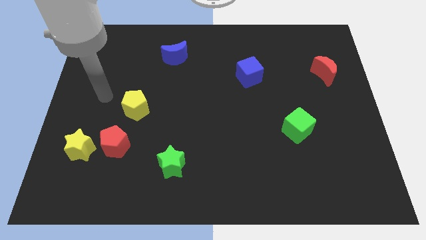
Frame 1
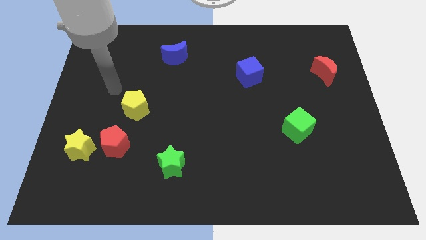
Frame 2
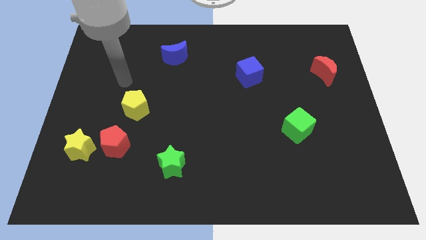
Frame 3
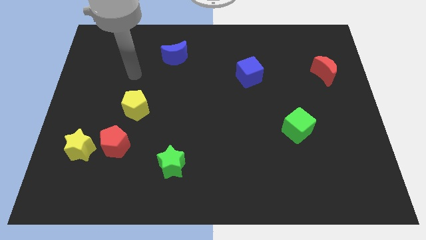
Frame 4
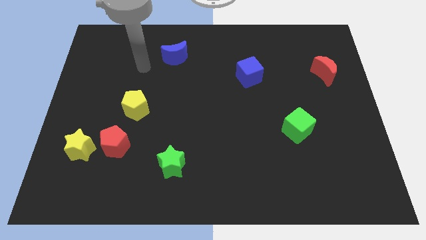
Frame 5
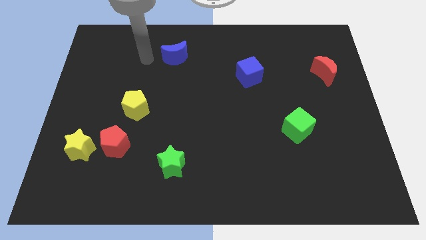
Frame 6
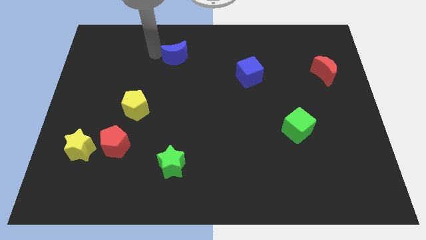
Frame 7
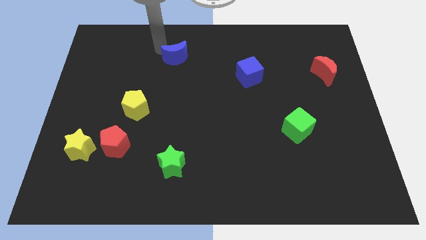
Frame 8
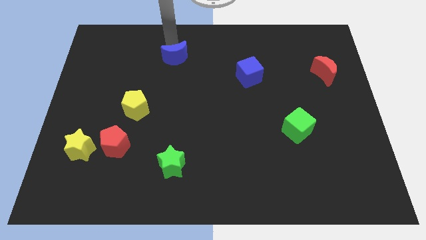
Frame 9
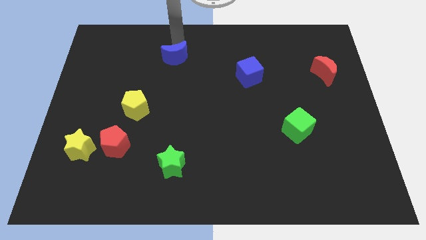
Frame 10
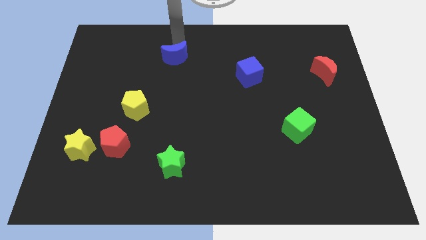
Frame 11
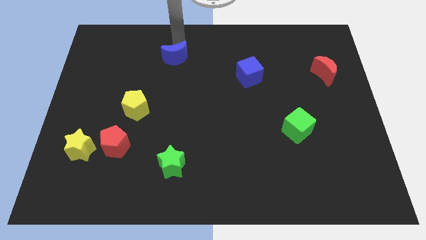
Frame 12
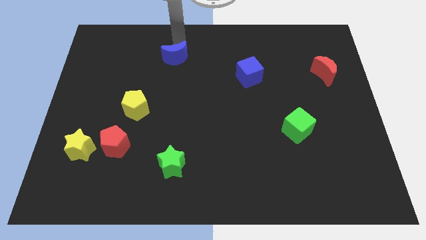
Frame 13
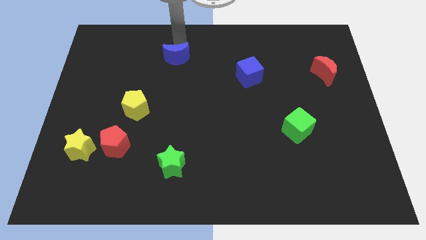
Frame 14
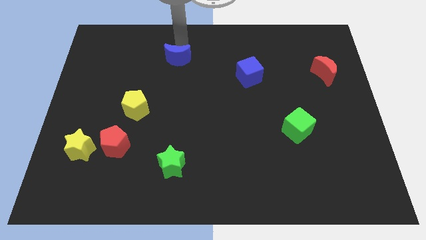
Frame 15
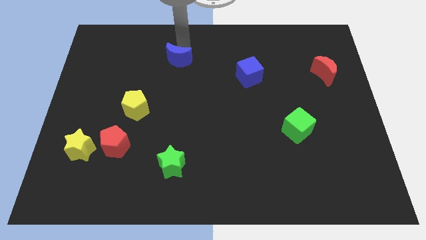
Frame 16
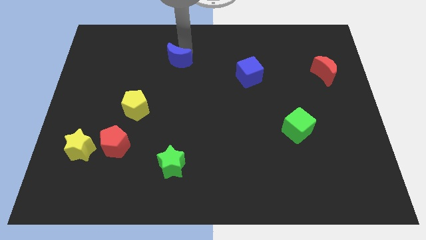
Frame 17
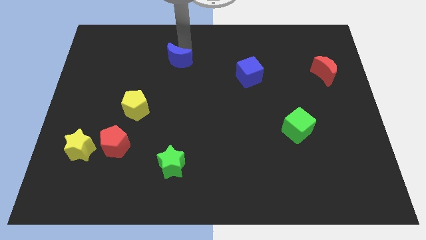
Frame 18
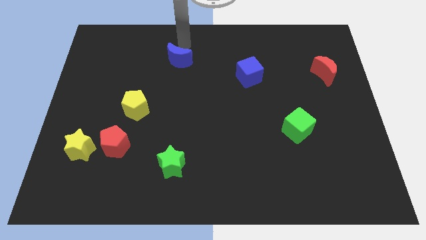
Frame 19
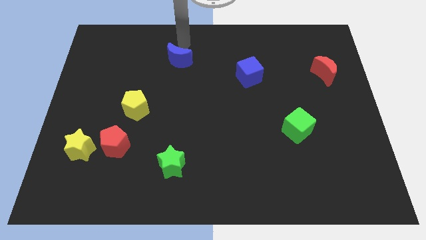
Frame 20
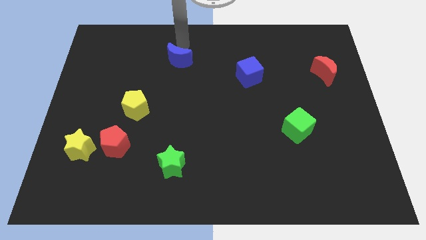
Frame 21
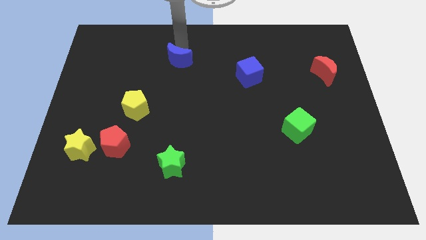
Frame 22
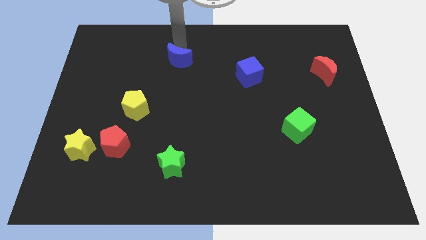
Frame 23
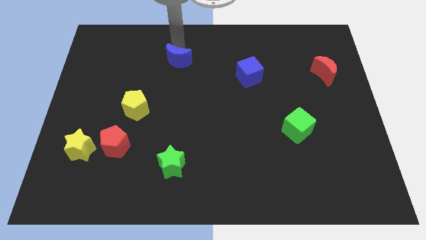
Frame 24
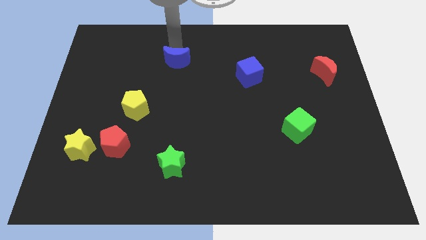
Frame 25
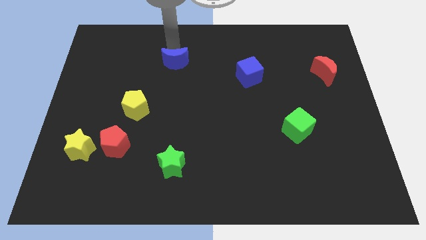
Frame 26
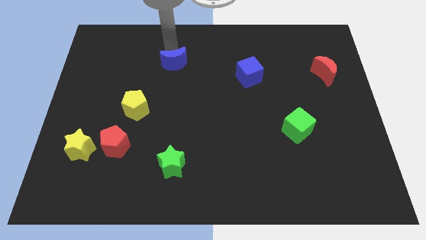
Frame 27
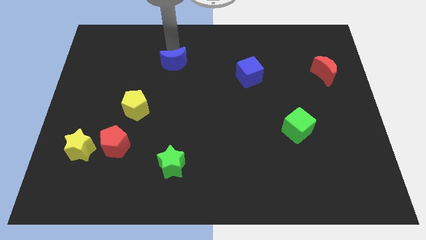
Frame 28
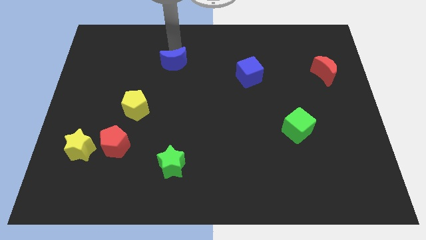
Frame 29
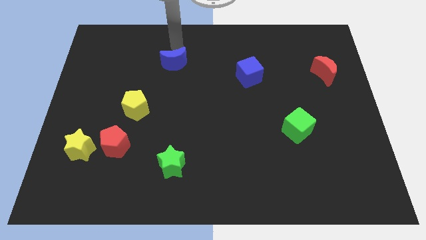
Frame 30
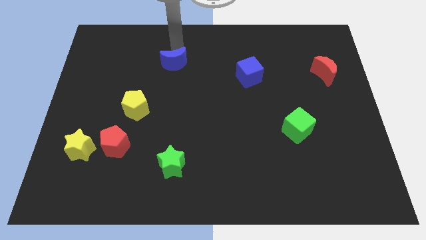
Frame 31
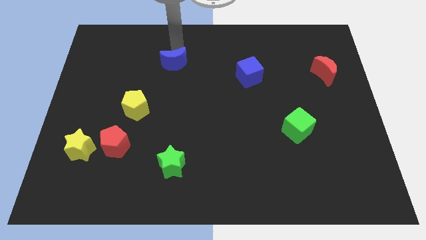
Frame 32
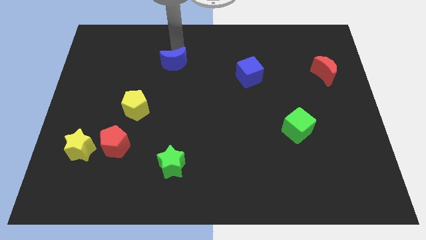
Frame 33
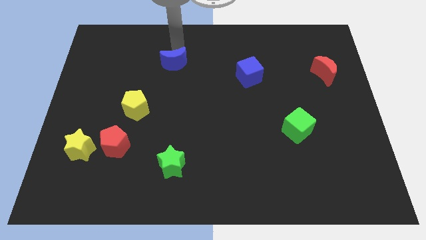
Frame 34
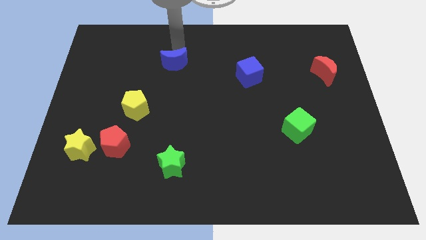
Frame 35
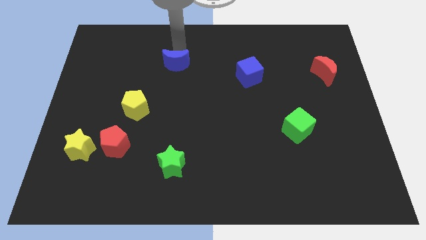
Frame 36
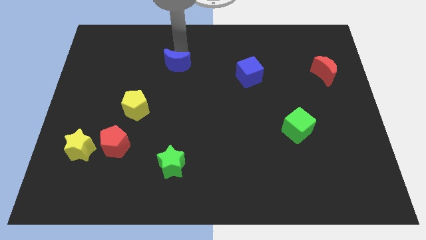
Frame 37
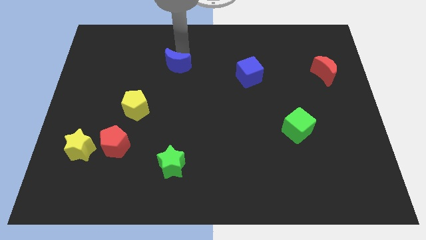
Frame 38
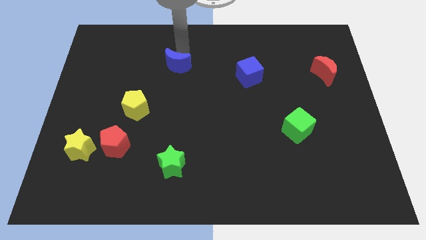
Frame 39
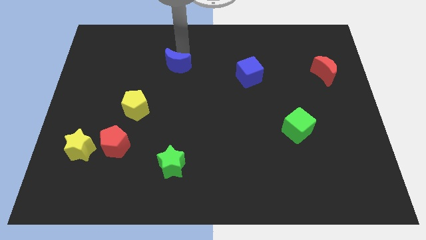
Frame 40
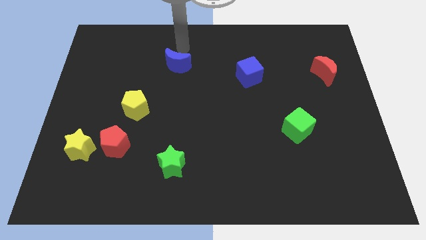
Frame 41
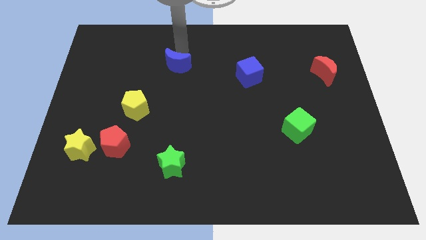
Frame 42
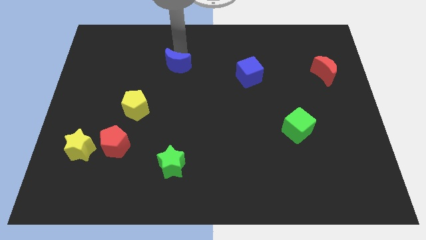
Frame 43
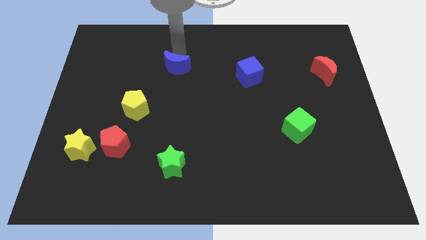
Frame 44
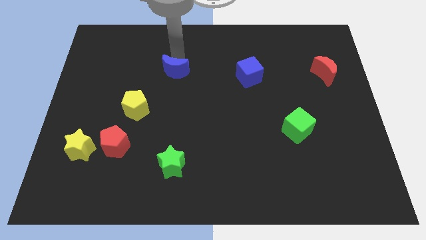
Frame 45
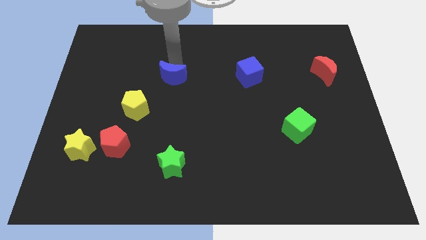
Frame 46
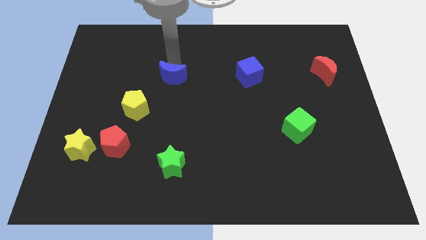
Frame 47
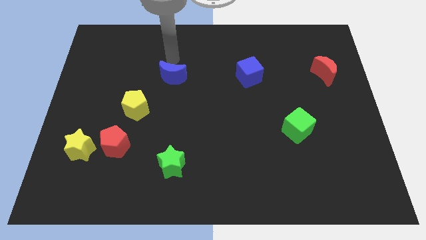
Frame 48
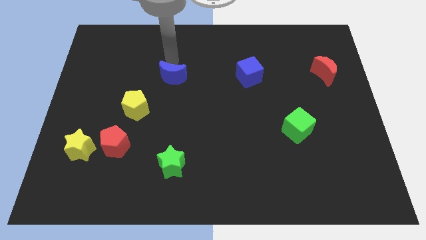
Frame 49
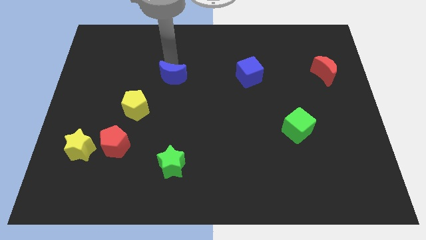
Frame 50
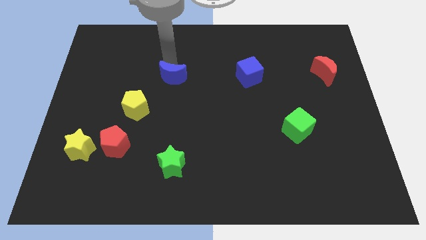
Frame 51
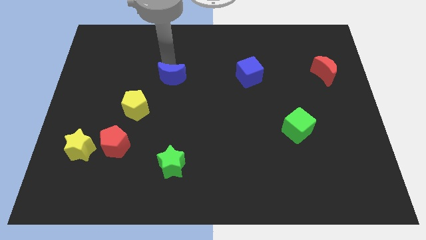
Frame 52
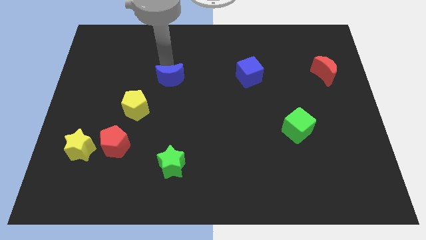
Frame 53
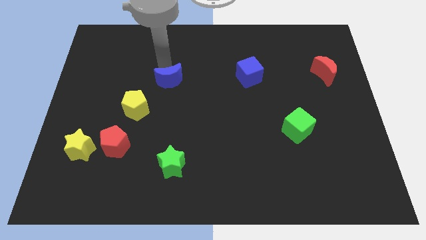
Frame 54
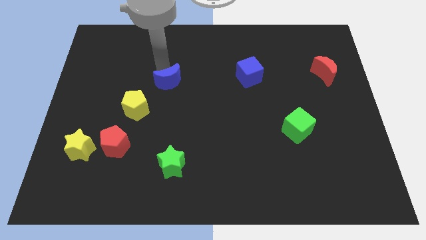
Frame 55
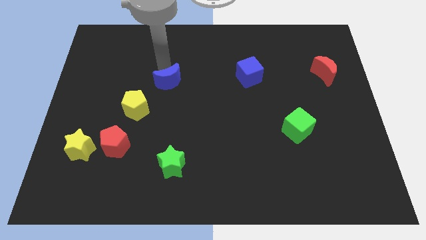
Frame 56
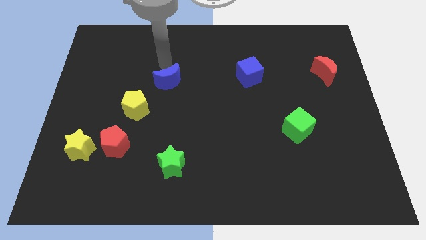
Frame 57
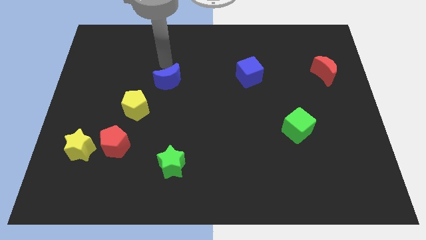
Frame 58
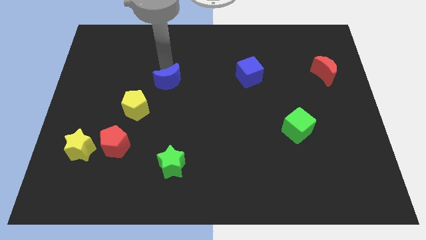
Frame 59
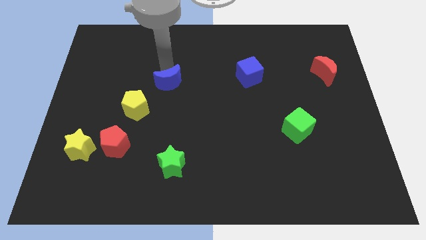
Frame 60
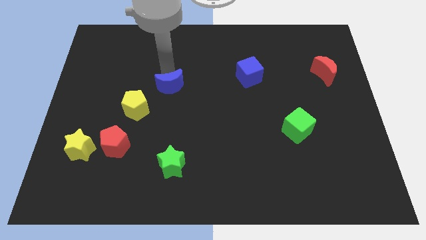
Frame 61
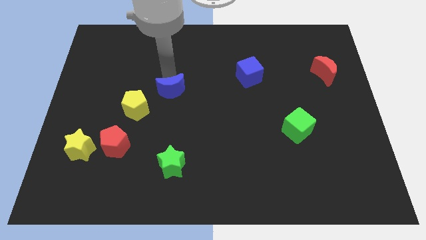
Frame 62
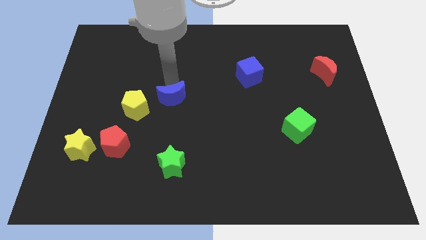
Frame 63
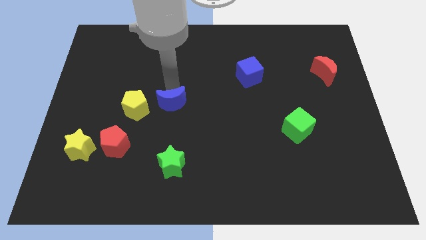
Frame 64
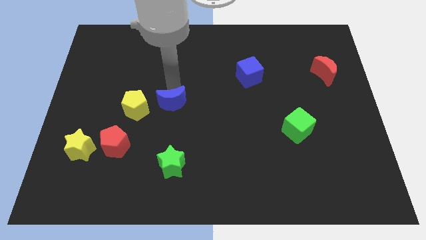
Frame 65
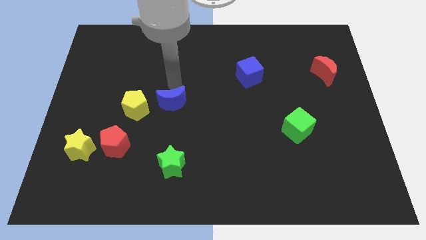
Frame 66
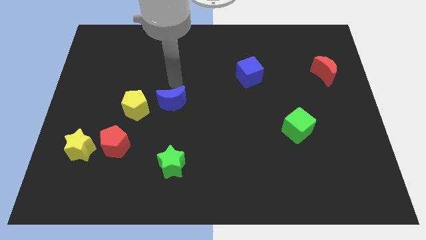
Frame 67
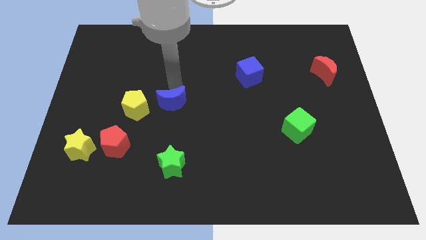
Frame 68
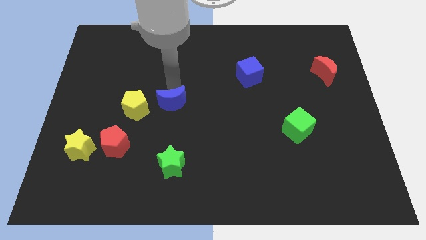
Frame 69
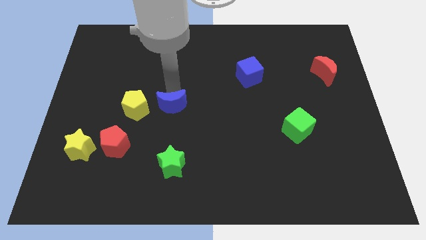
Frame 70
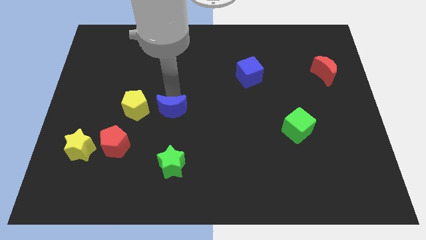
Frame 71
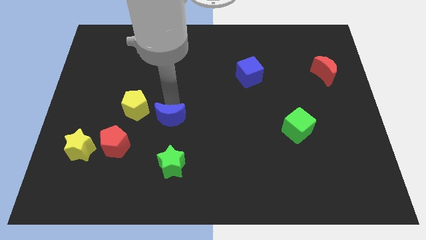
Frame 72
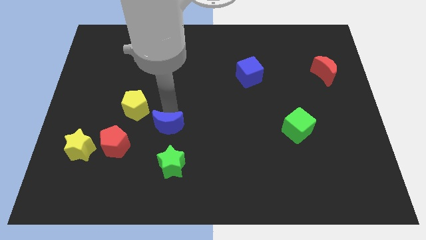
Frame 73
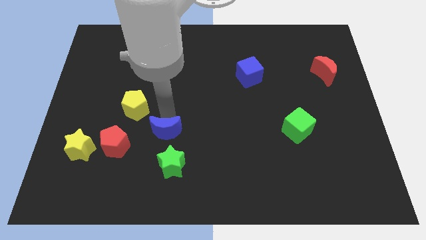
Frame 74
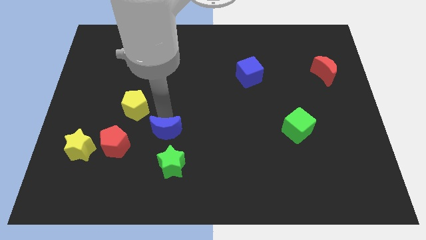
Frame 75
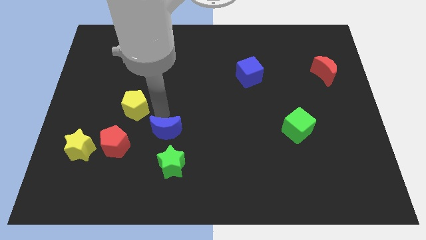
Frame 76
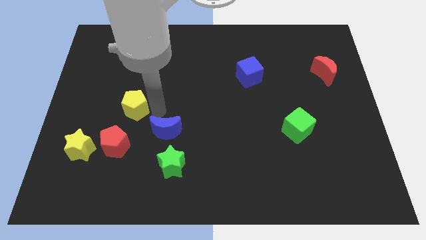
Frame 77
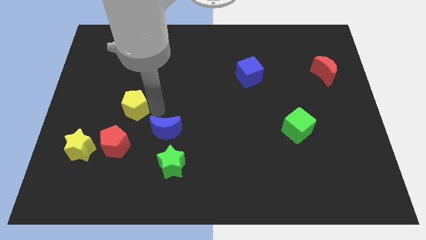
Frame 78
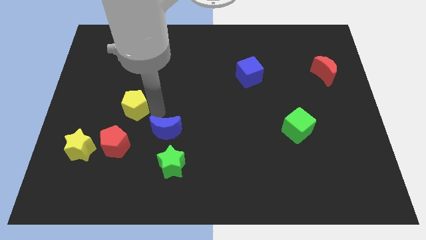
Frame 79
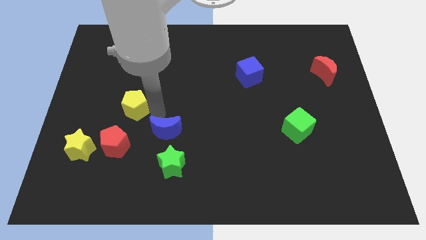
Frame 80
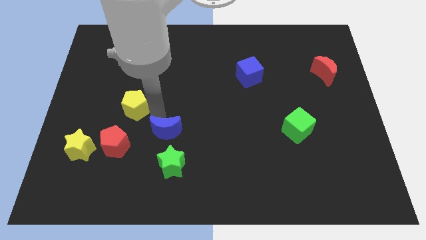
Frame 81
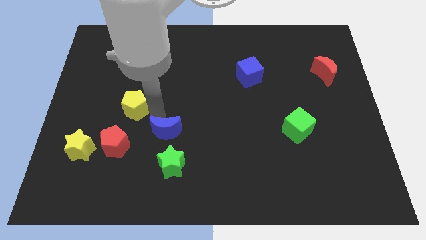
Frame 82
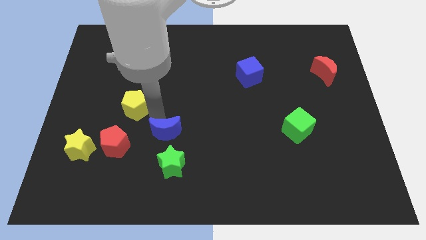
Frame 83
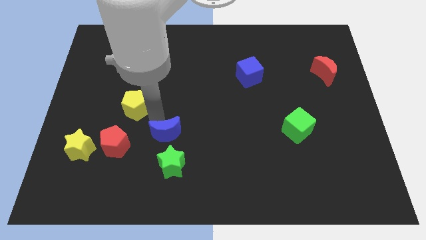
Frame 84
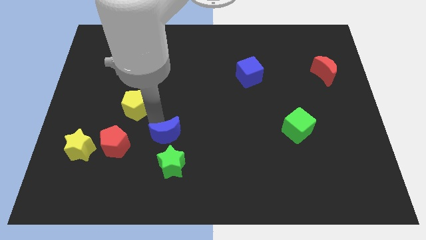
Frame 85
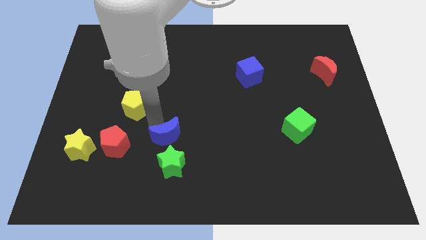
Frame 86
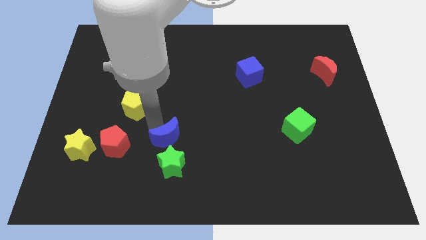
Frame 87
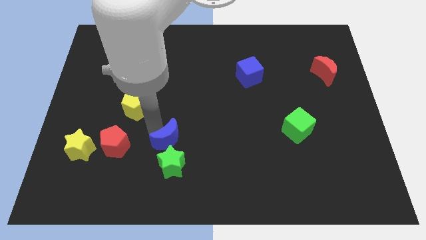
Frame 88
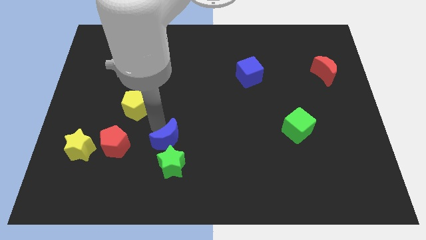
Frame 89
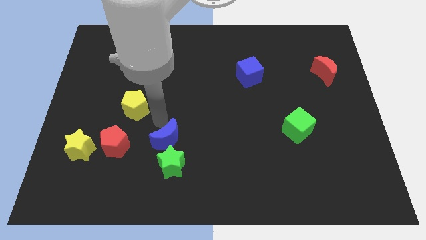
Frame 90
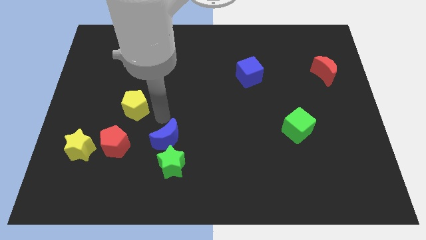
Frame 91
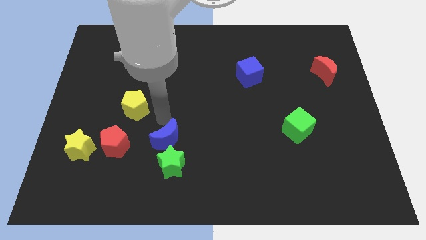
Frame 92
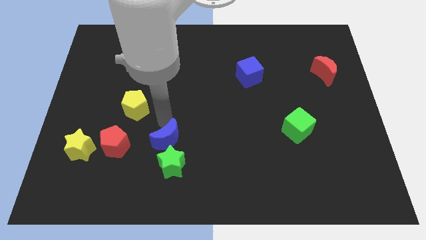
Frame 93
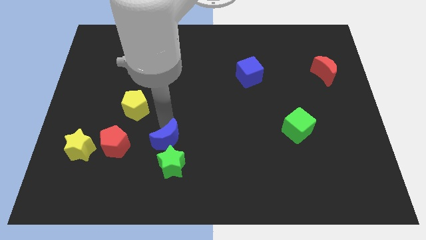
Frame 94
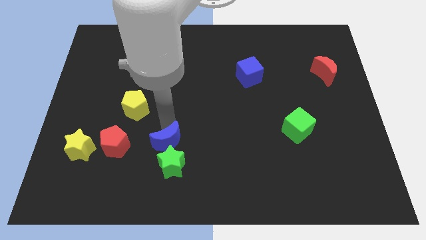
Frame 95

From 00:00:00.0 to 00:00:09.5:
push the blue moon next to the green star
